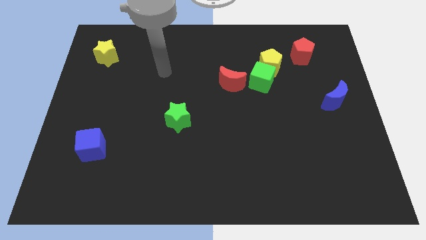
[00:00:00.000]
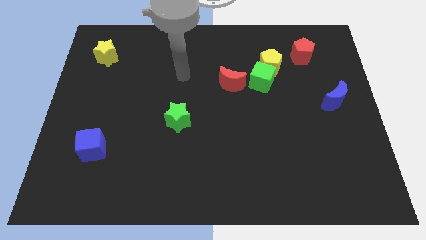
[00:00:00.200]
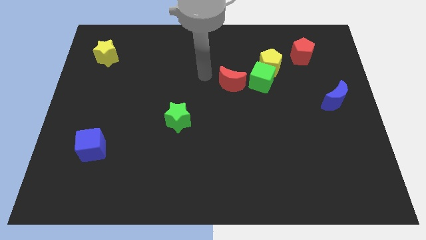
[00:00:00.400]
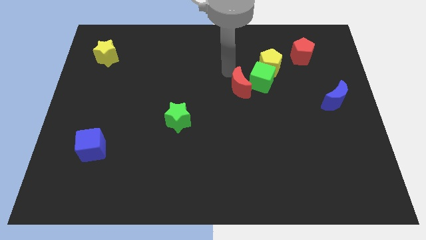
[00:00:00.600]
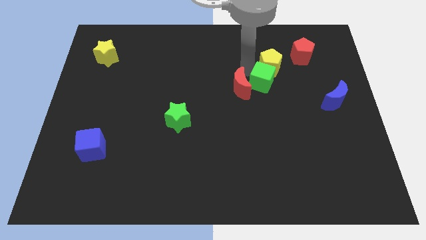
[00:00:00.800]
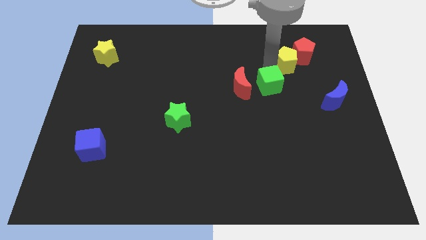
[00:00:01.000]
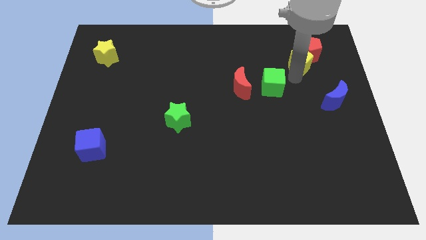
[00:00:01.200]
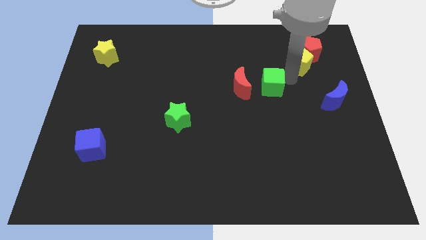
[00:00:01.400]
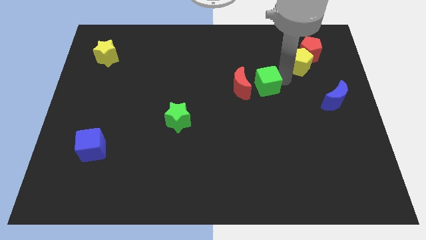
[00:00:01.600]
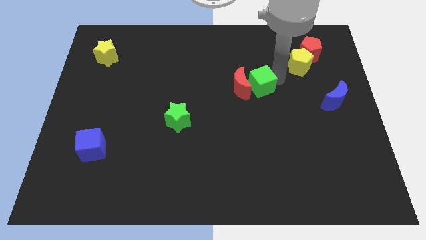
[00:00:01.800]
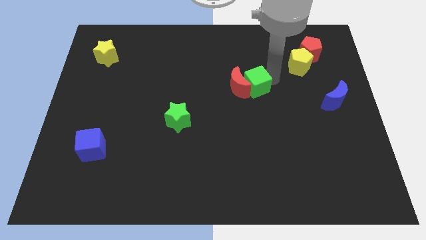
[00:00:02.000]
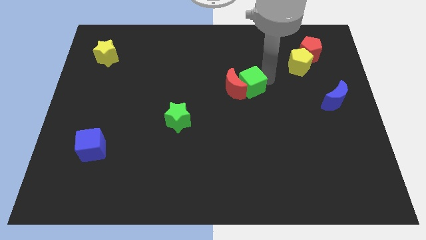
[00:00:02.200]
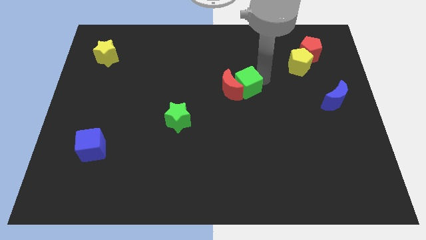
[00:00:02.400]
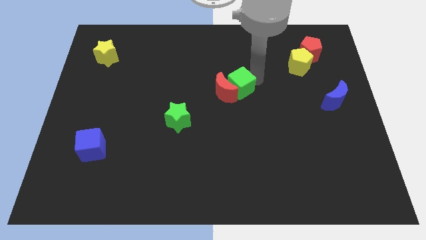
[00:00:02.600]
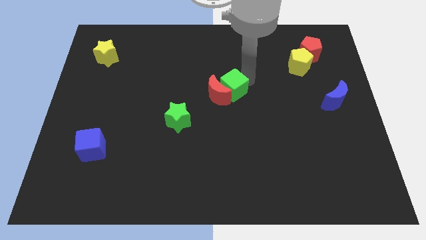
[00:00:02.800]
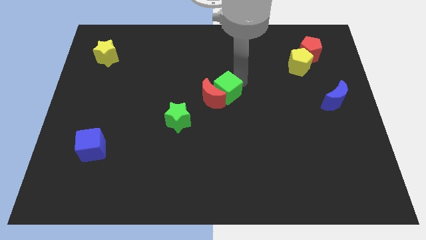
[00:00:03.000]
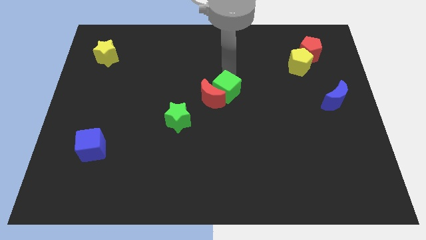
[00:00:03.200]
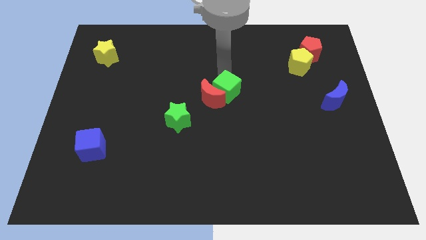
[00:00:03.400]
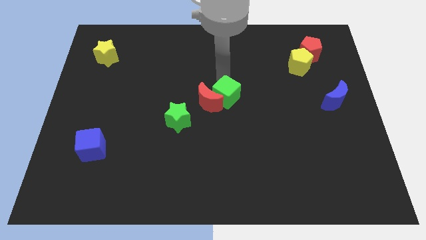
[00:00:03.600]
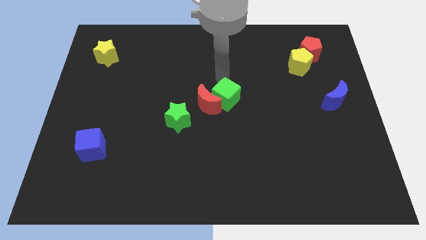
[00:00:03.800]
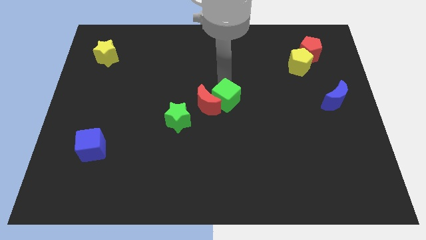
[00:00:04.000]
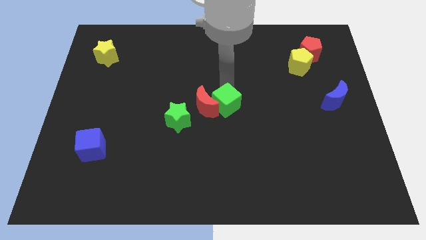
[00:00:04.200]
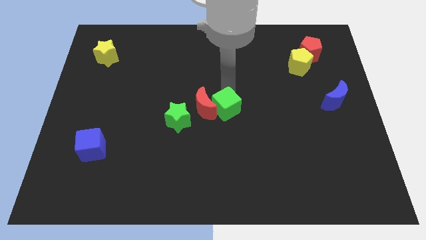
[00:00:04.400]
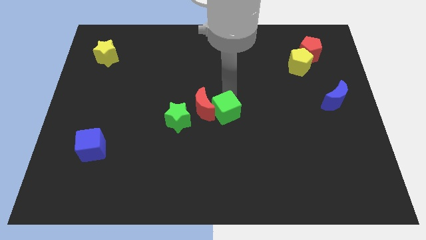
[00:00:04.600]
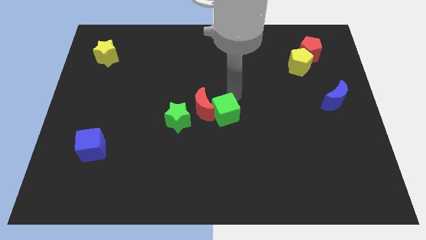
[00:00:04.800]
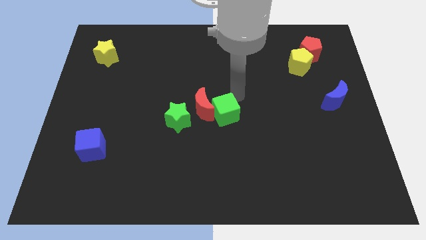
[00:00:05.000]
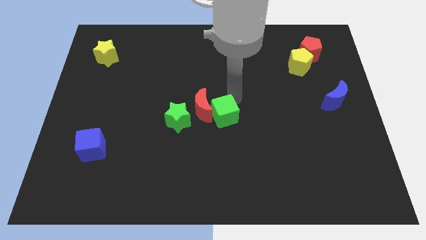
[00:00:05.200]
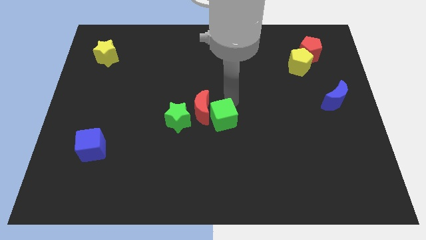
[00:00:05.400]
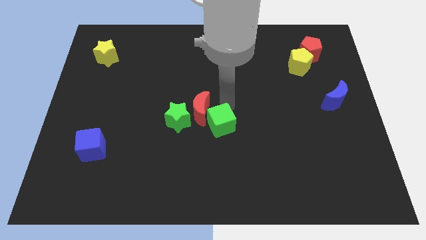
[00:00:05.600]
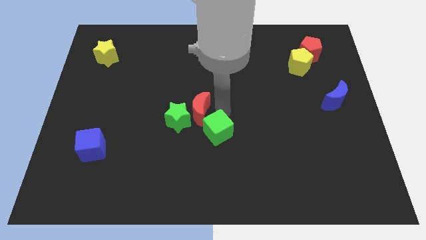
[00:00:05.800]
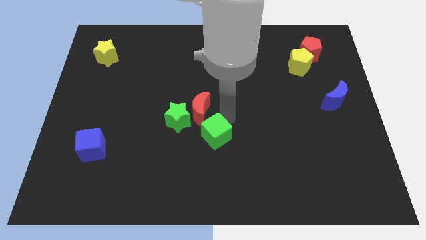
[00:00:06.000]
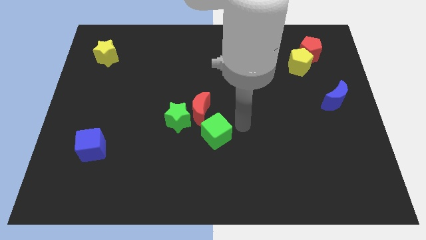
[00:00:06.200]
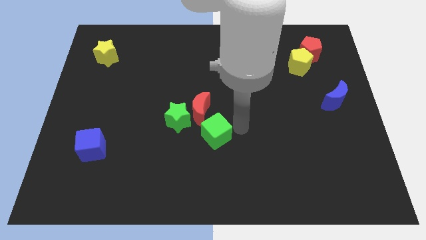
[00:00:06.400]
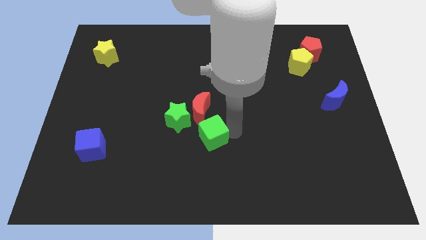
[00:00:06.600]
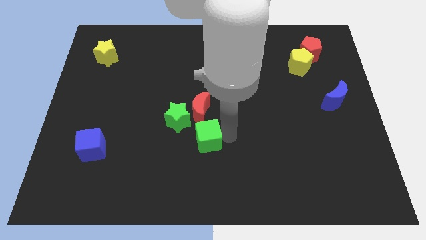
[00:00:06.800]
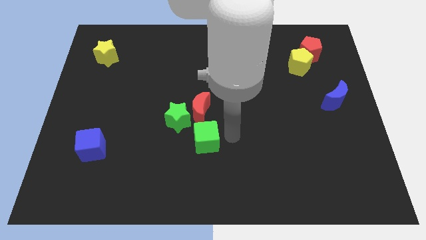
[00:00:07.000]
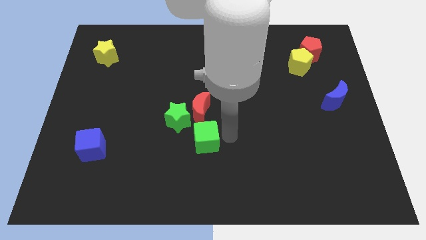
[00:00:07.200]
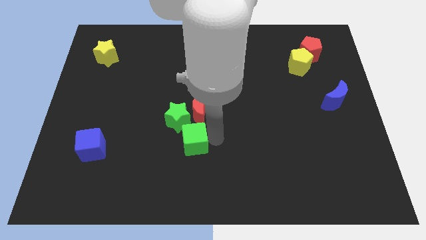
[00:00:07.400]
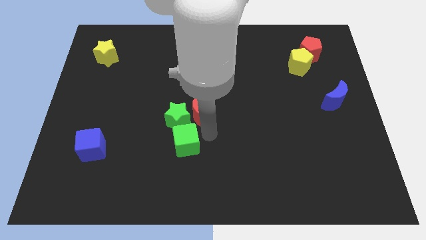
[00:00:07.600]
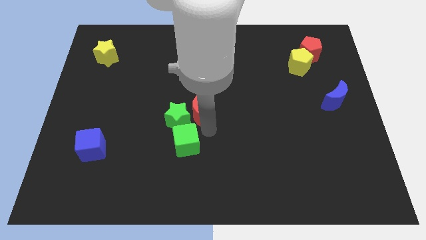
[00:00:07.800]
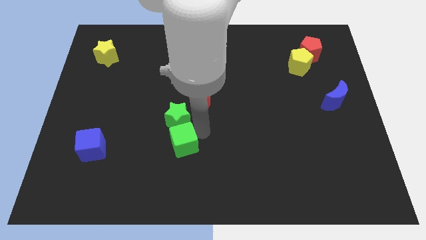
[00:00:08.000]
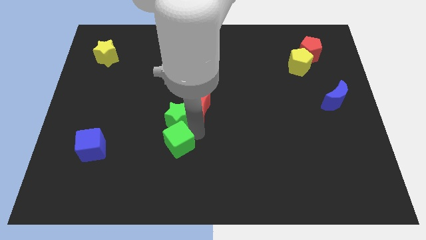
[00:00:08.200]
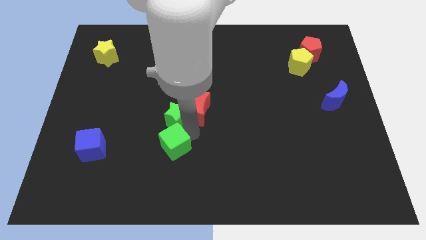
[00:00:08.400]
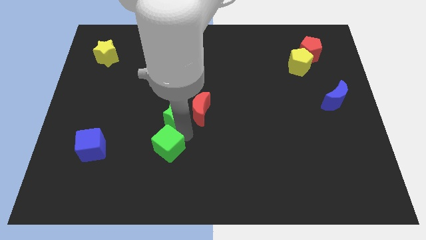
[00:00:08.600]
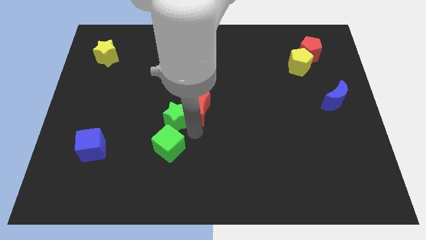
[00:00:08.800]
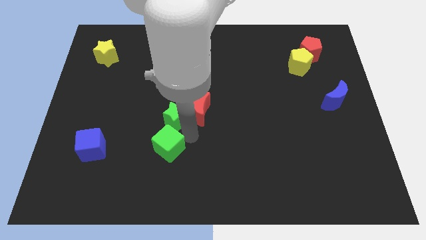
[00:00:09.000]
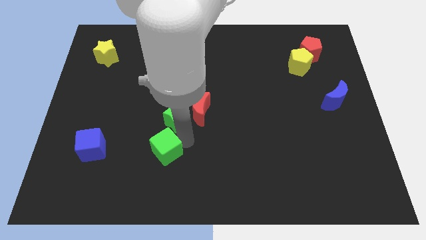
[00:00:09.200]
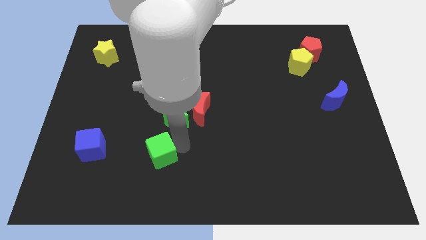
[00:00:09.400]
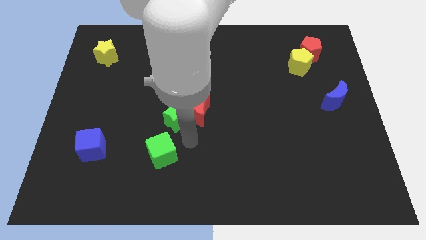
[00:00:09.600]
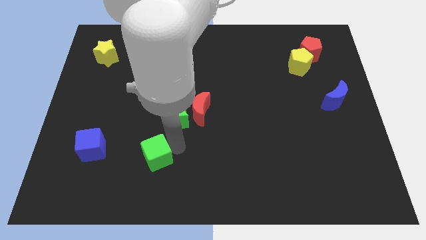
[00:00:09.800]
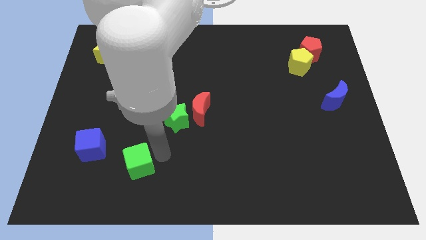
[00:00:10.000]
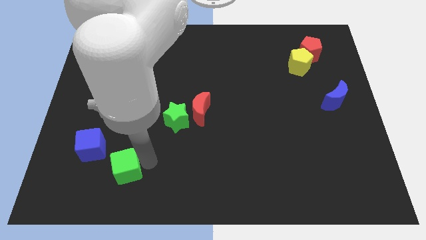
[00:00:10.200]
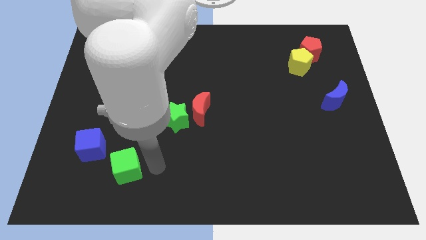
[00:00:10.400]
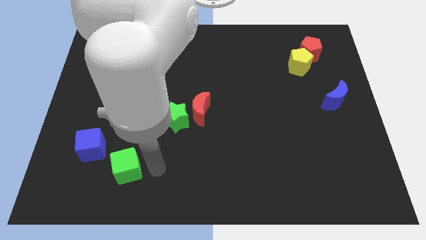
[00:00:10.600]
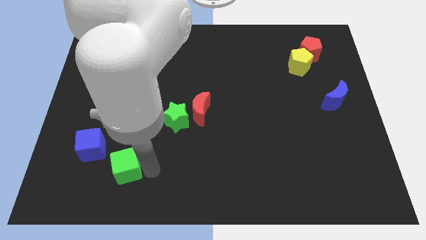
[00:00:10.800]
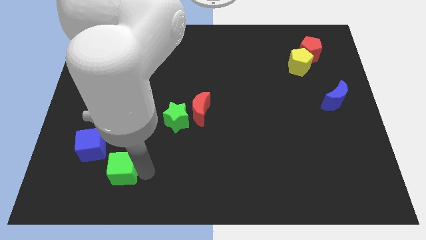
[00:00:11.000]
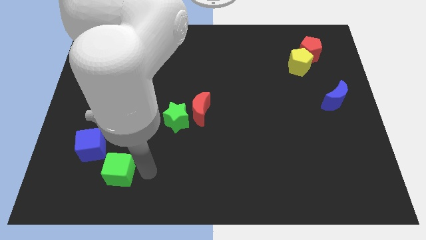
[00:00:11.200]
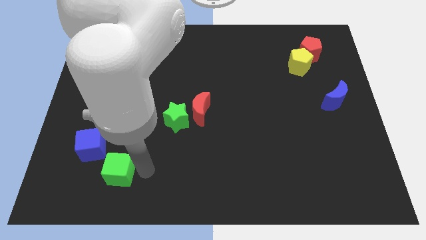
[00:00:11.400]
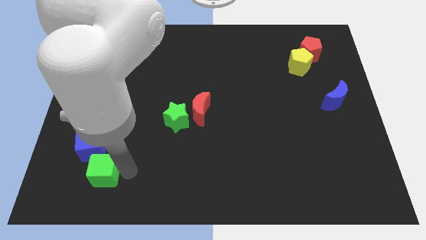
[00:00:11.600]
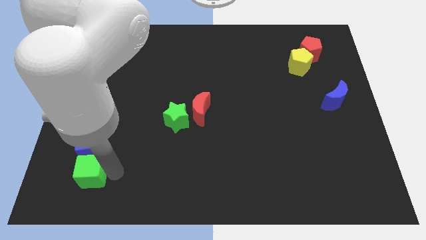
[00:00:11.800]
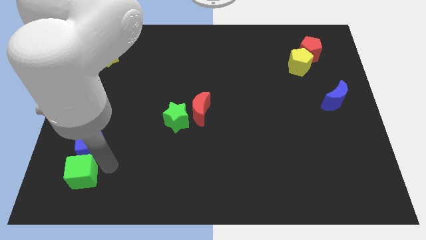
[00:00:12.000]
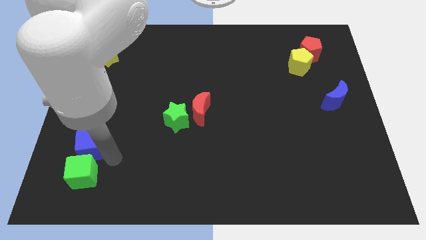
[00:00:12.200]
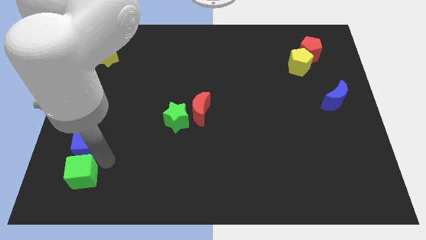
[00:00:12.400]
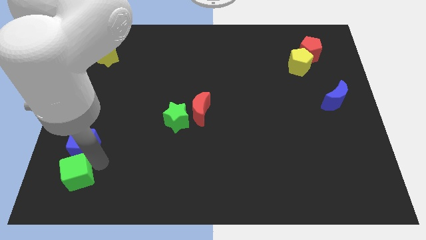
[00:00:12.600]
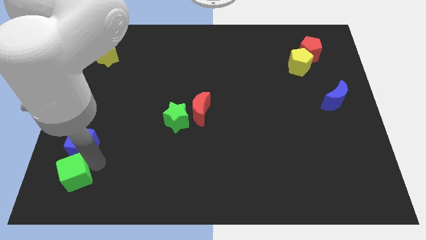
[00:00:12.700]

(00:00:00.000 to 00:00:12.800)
put the green cube to the bottom left
